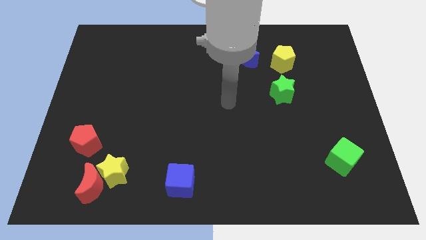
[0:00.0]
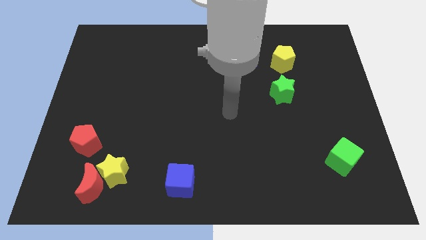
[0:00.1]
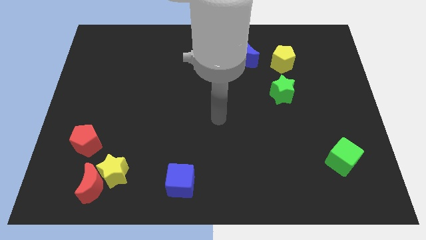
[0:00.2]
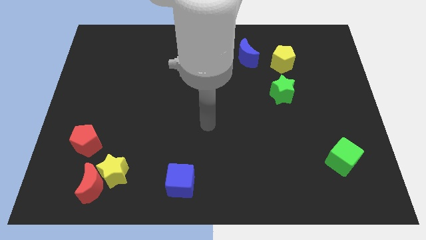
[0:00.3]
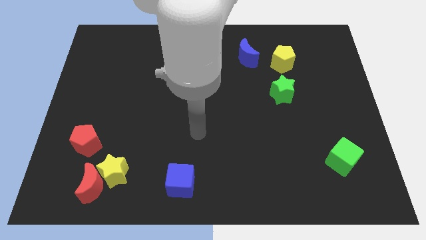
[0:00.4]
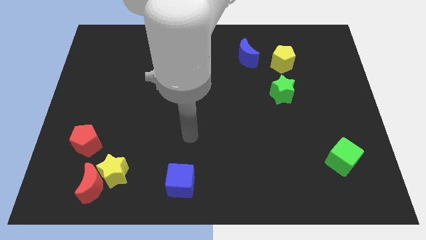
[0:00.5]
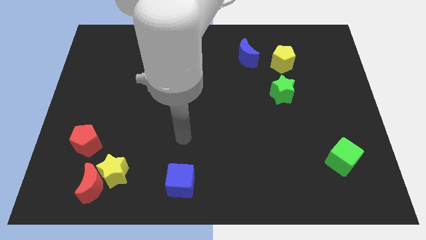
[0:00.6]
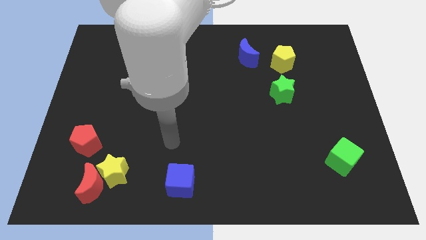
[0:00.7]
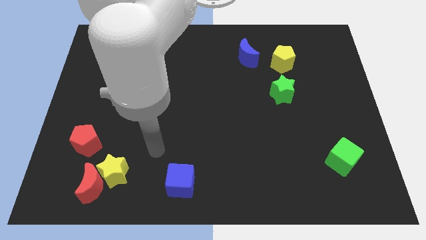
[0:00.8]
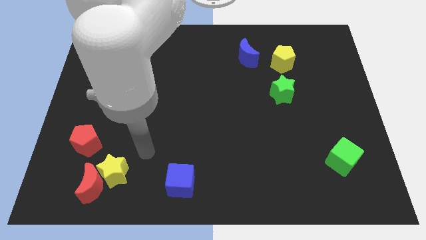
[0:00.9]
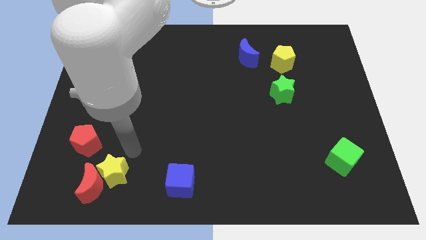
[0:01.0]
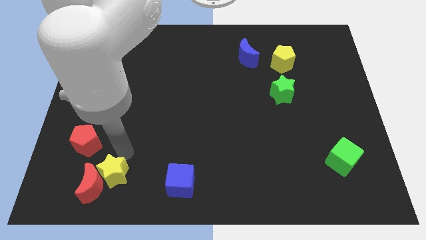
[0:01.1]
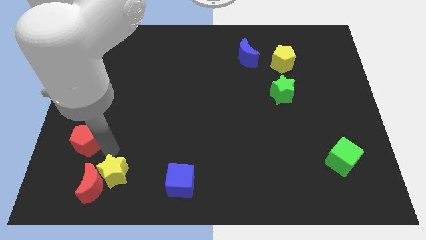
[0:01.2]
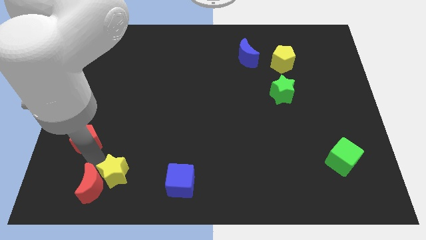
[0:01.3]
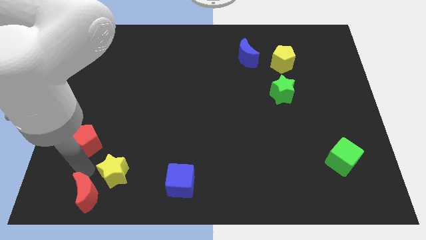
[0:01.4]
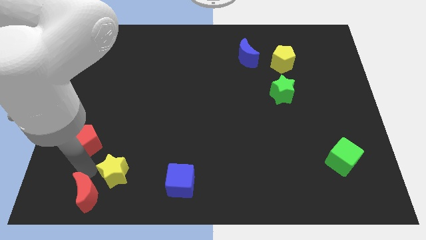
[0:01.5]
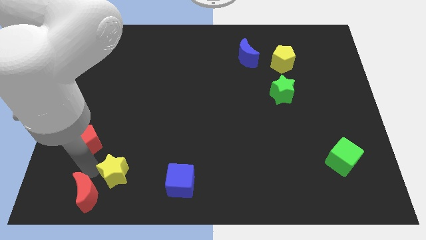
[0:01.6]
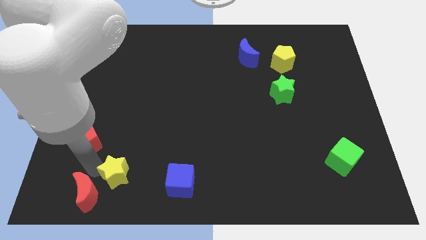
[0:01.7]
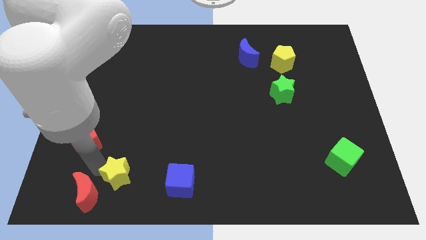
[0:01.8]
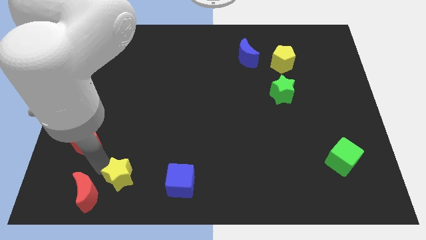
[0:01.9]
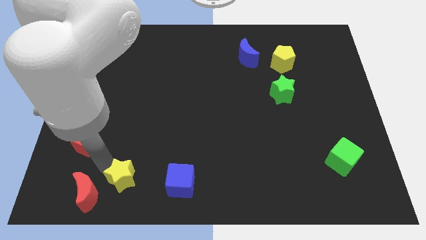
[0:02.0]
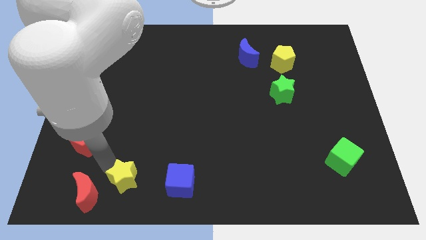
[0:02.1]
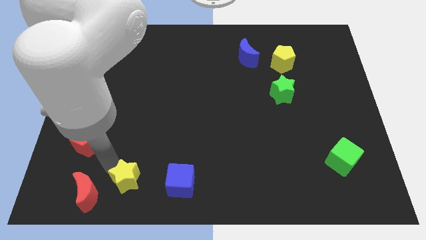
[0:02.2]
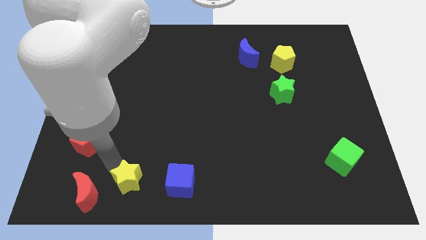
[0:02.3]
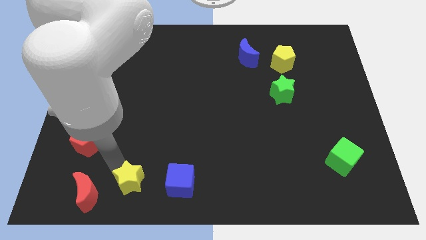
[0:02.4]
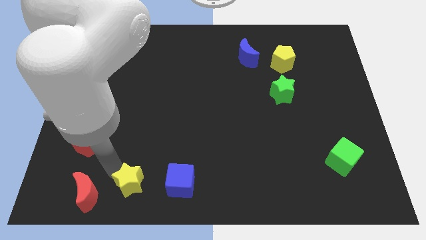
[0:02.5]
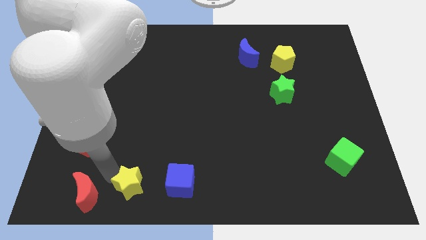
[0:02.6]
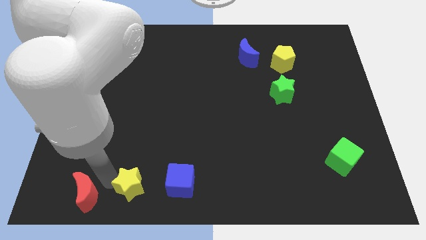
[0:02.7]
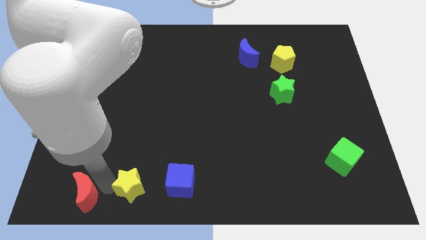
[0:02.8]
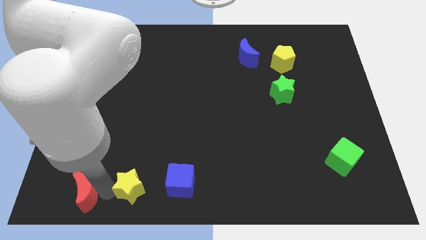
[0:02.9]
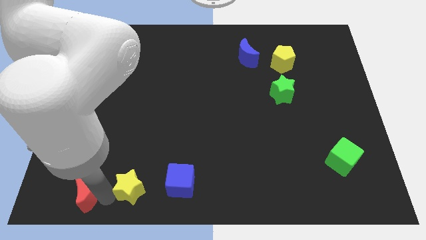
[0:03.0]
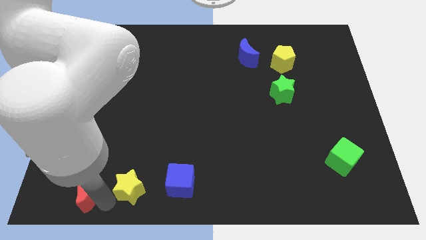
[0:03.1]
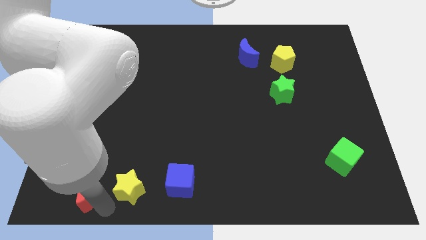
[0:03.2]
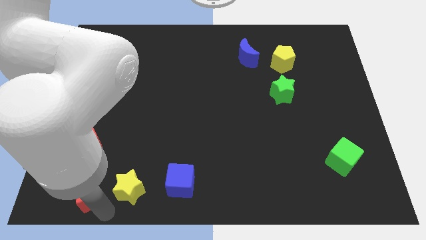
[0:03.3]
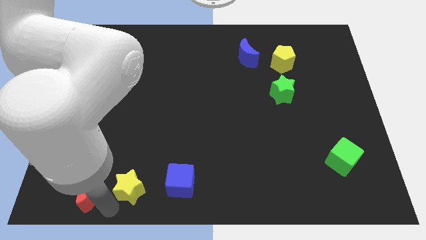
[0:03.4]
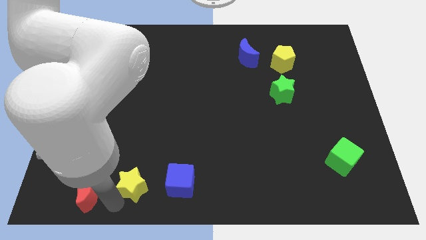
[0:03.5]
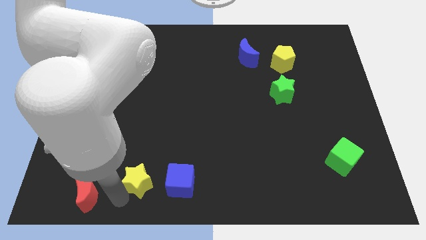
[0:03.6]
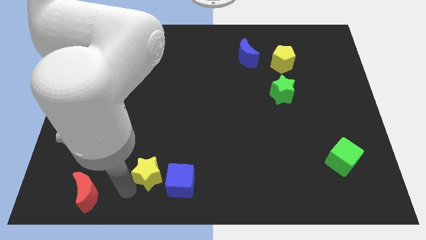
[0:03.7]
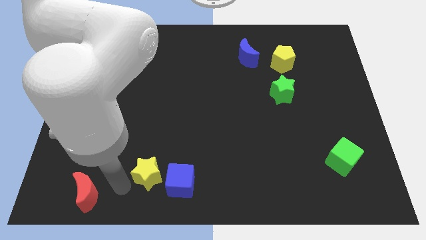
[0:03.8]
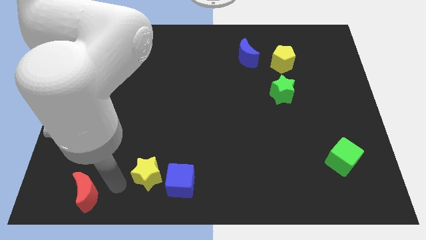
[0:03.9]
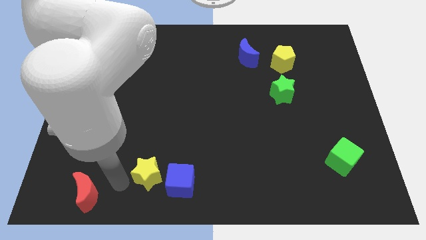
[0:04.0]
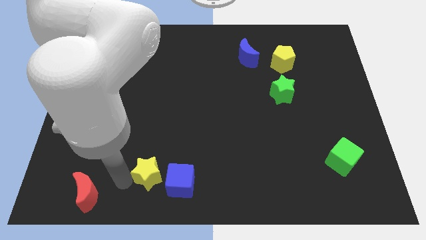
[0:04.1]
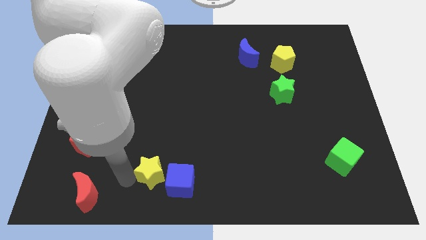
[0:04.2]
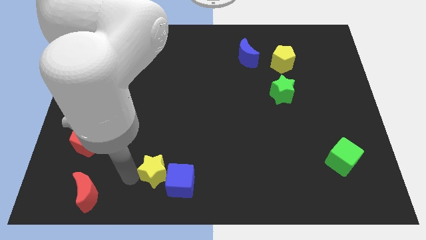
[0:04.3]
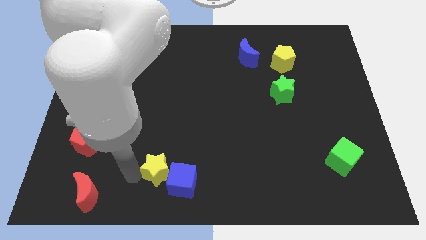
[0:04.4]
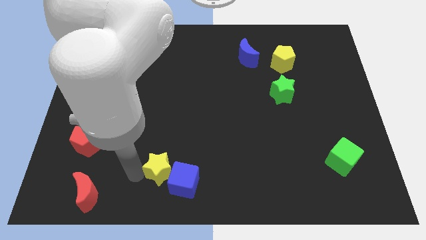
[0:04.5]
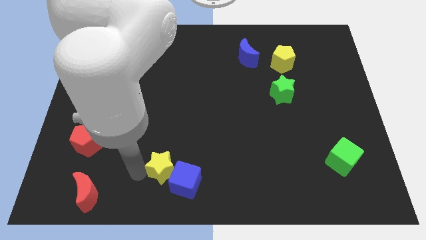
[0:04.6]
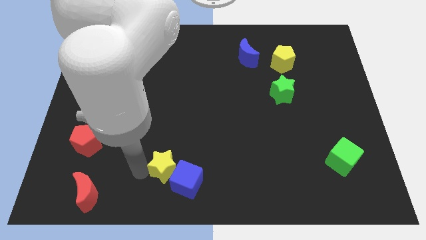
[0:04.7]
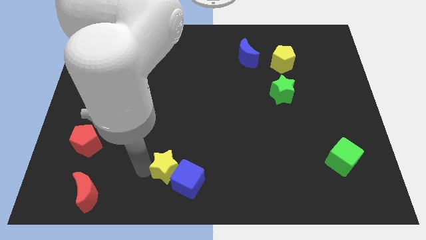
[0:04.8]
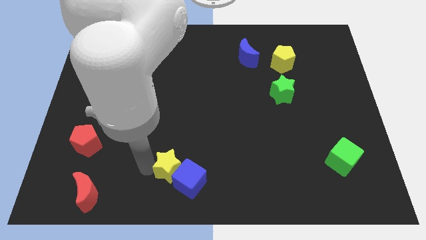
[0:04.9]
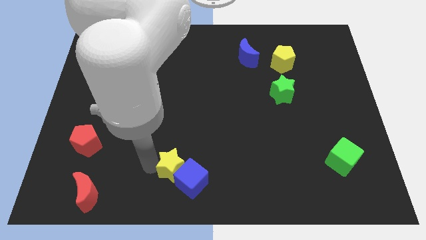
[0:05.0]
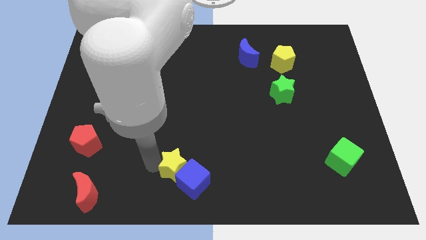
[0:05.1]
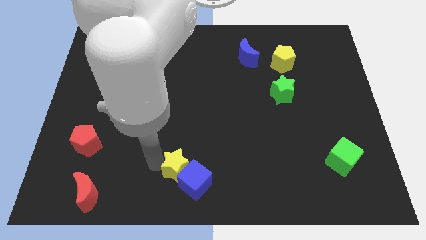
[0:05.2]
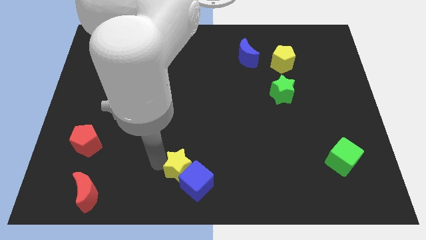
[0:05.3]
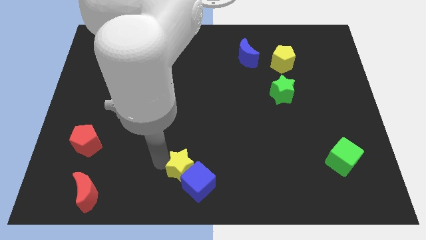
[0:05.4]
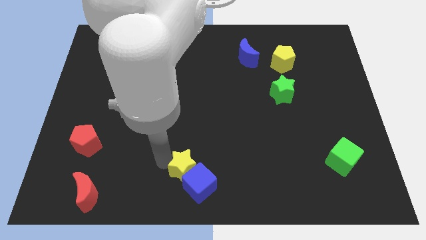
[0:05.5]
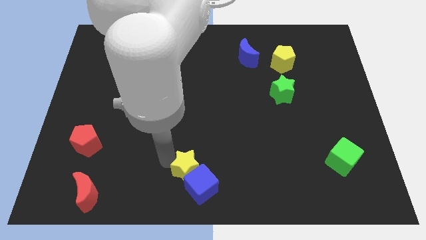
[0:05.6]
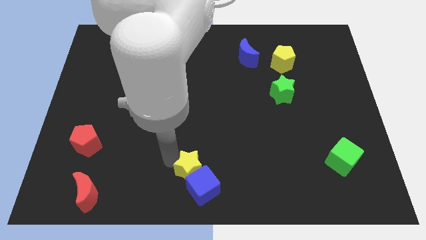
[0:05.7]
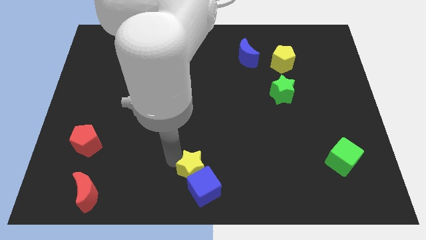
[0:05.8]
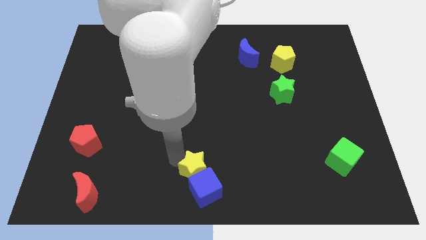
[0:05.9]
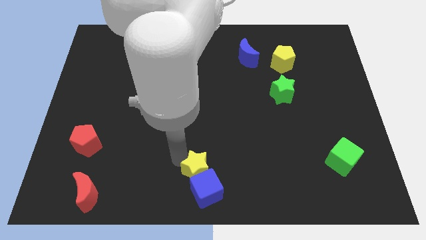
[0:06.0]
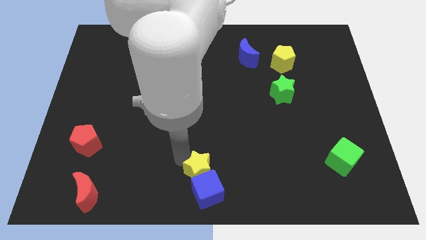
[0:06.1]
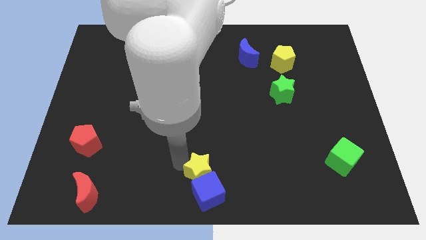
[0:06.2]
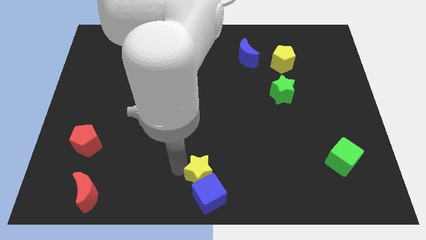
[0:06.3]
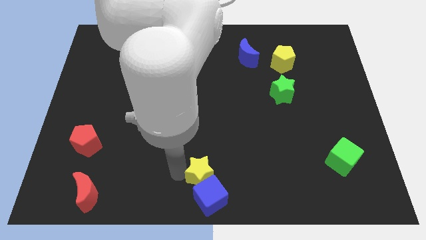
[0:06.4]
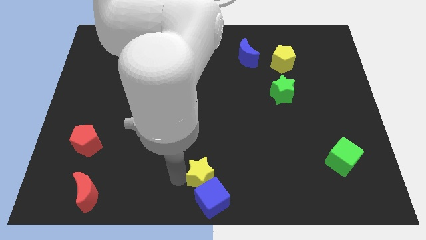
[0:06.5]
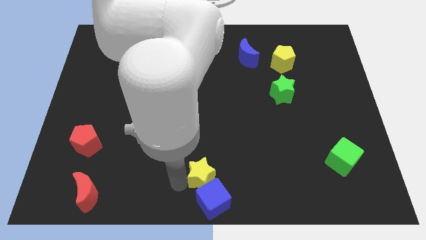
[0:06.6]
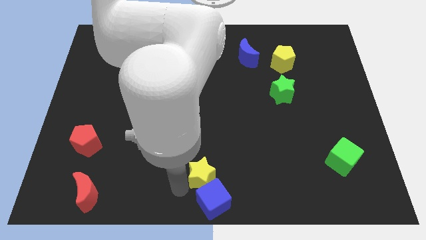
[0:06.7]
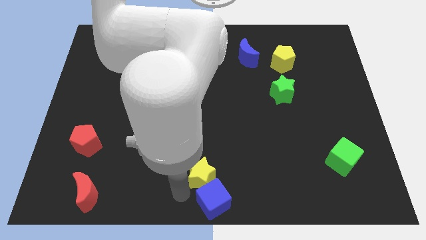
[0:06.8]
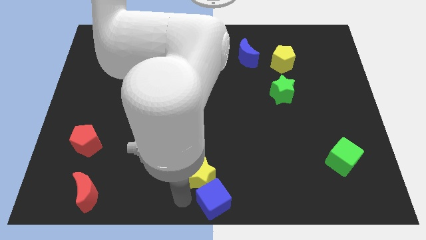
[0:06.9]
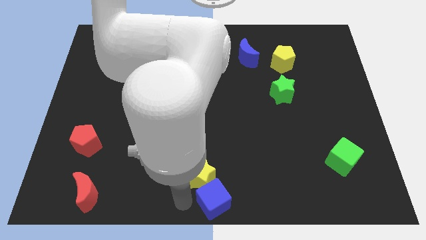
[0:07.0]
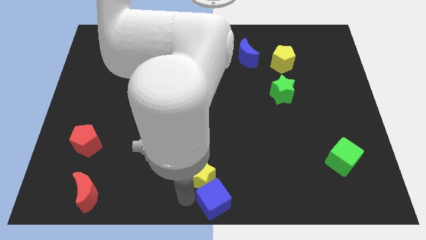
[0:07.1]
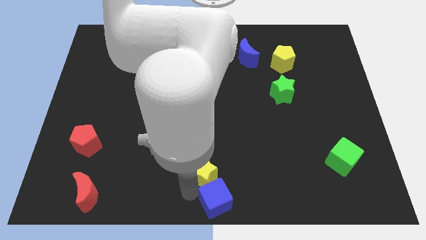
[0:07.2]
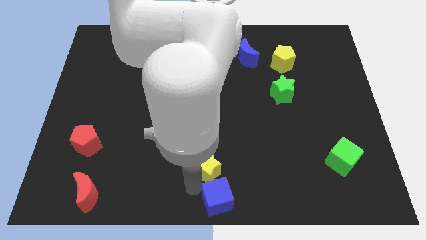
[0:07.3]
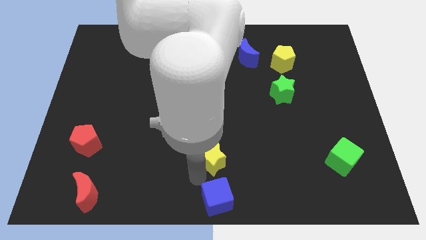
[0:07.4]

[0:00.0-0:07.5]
slide the yellow star to the right

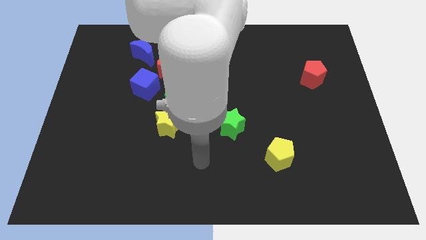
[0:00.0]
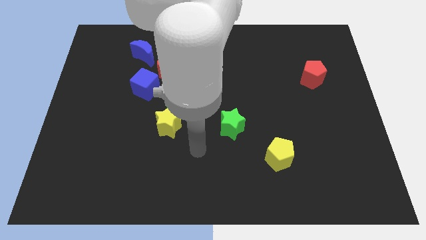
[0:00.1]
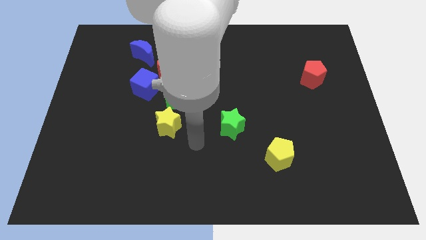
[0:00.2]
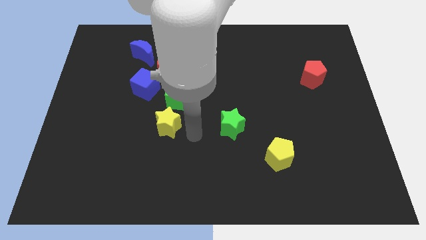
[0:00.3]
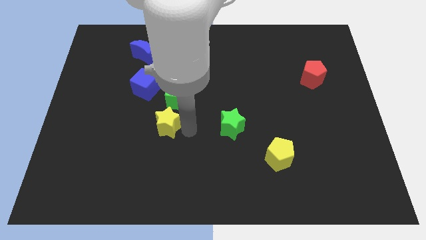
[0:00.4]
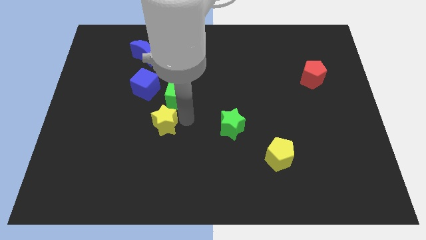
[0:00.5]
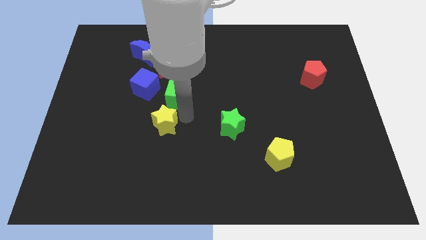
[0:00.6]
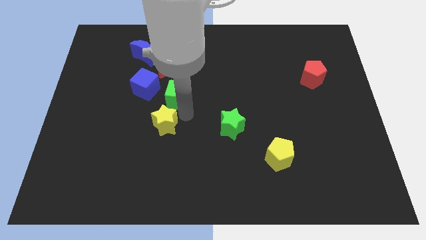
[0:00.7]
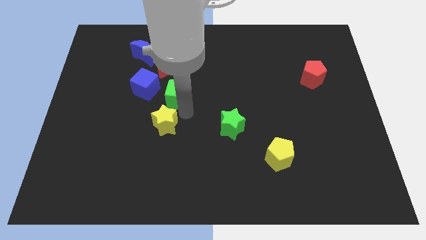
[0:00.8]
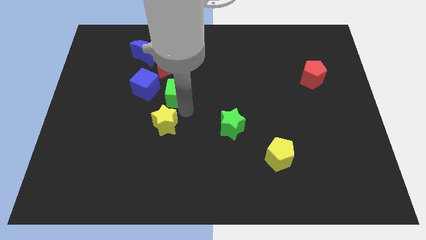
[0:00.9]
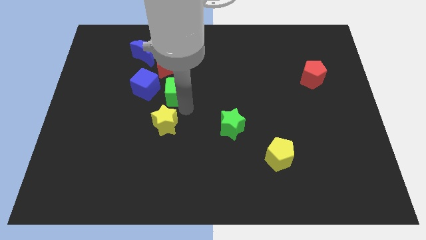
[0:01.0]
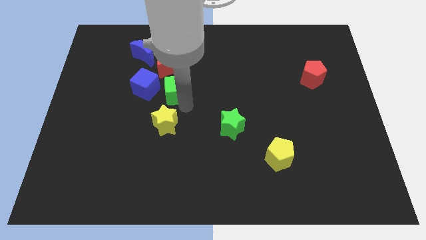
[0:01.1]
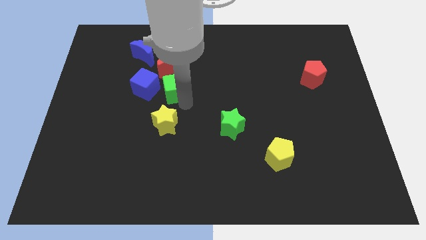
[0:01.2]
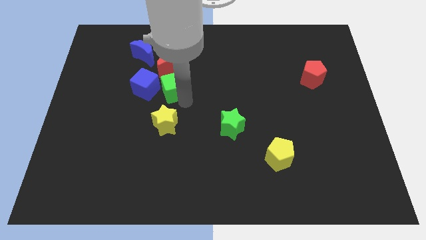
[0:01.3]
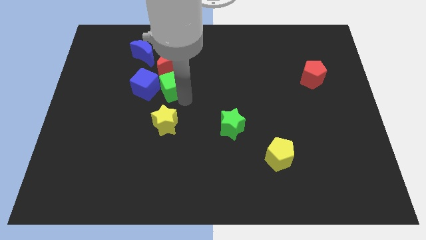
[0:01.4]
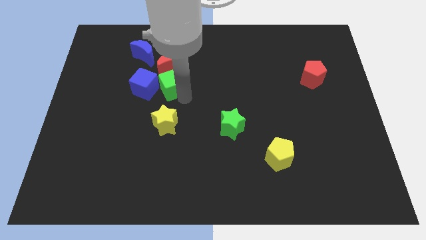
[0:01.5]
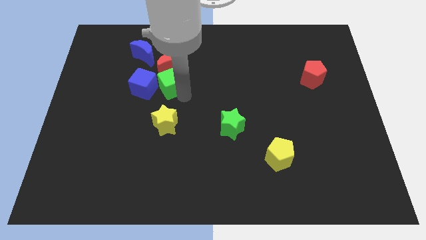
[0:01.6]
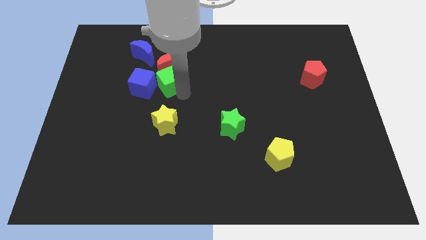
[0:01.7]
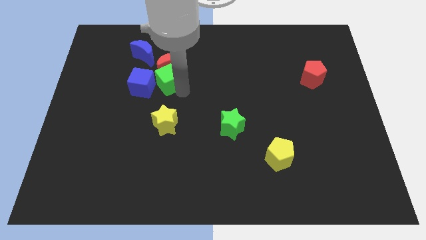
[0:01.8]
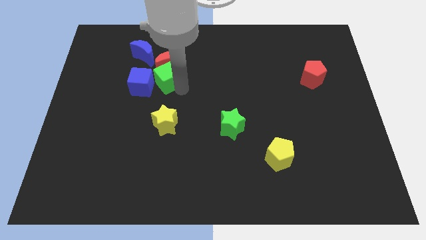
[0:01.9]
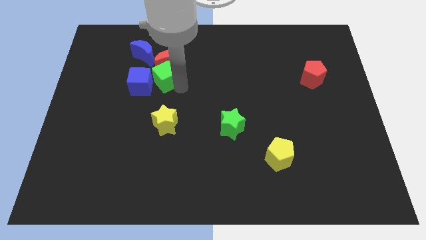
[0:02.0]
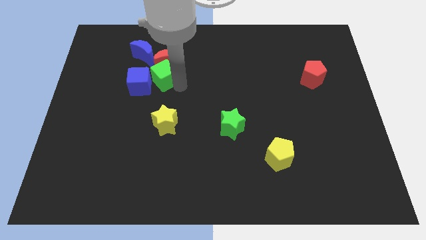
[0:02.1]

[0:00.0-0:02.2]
move the green cube up and left diagonally a bit
